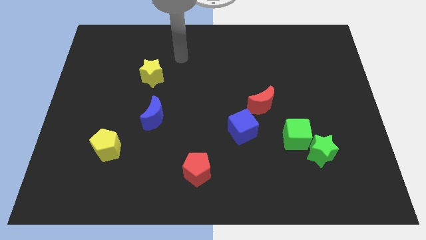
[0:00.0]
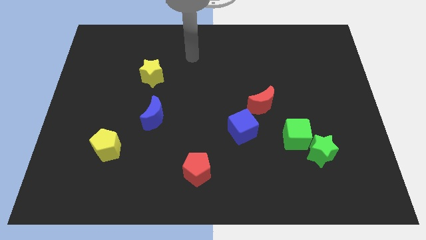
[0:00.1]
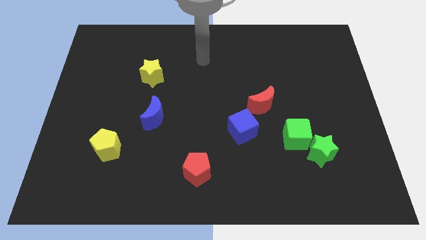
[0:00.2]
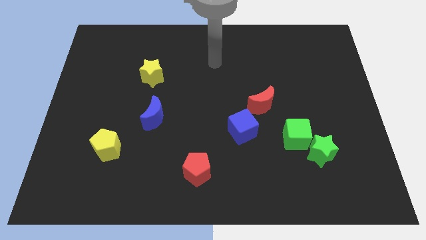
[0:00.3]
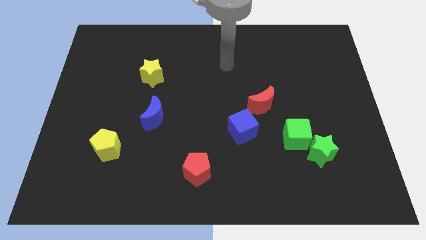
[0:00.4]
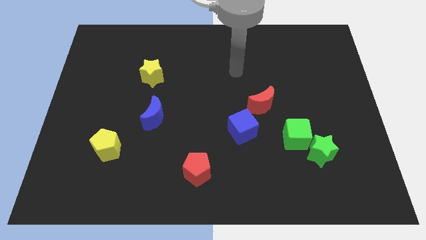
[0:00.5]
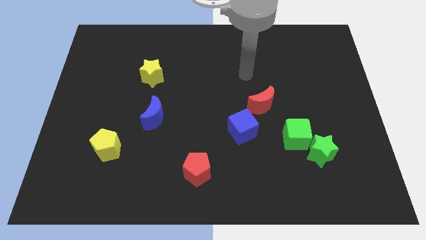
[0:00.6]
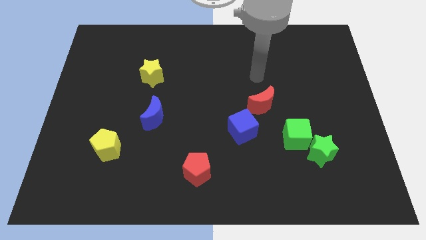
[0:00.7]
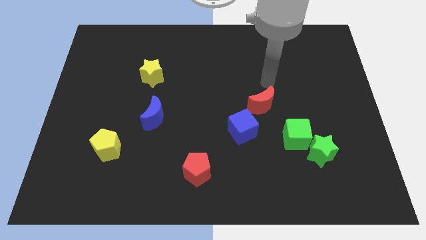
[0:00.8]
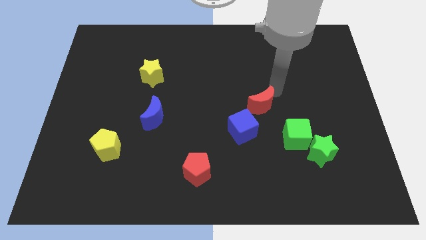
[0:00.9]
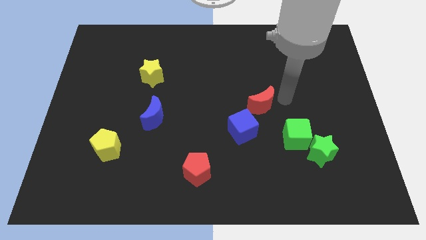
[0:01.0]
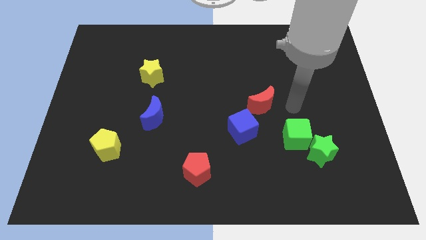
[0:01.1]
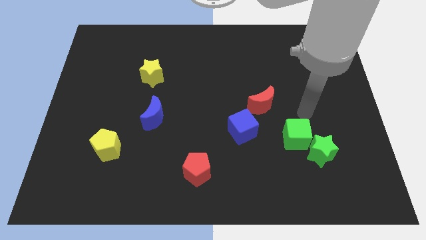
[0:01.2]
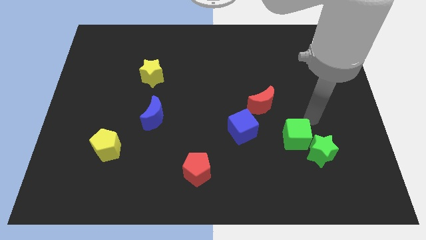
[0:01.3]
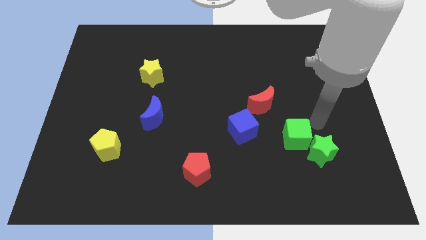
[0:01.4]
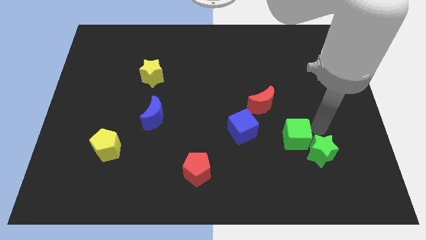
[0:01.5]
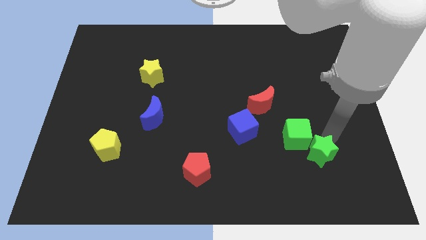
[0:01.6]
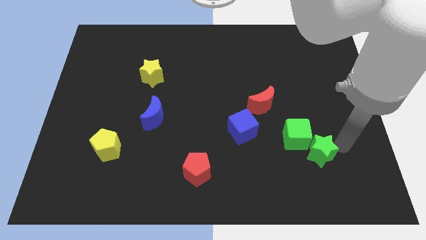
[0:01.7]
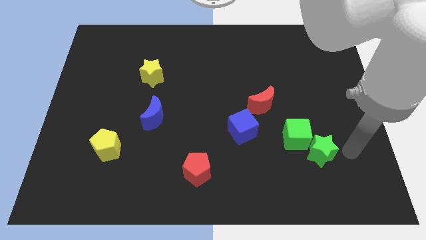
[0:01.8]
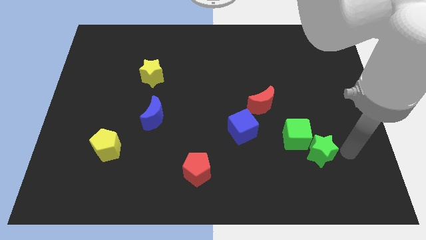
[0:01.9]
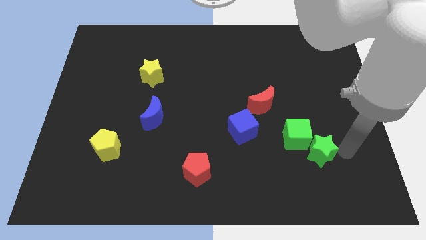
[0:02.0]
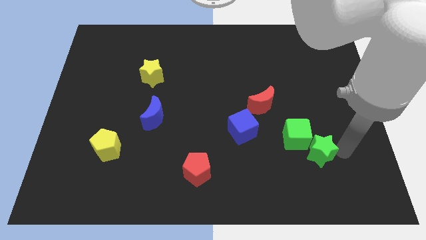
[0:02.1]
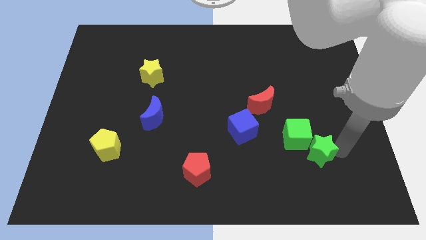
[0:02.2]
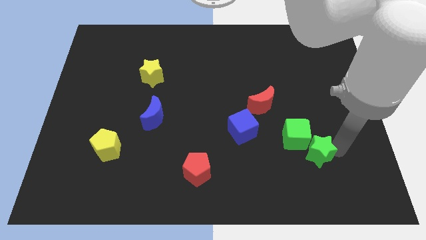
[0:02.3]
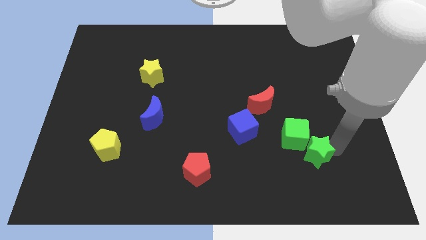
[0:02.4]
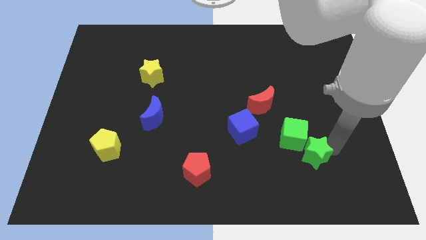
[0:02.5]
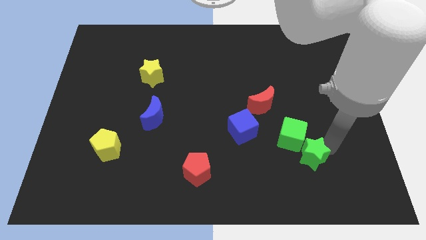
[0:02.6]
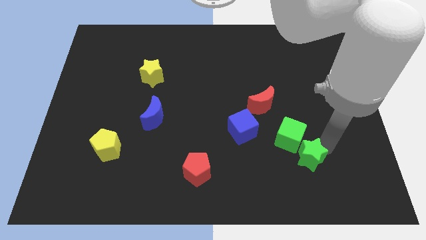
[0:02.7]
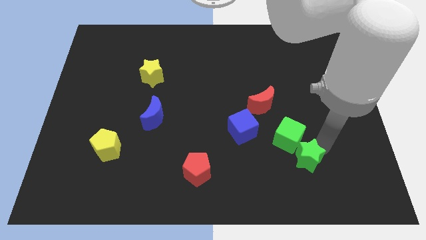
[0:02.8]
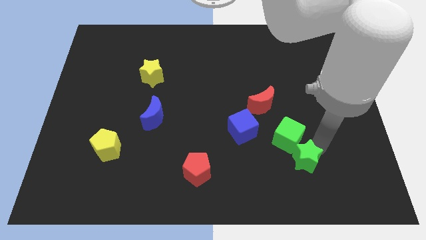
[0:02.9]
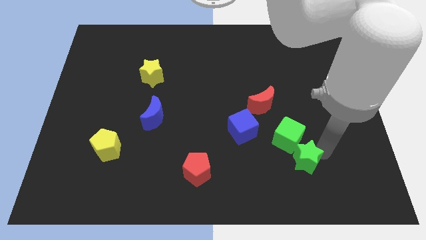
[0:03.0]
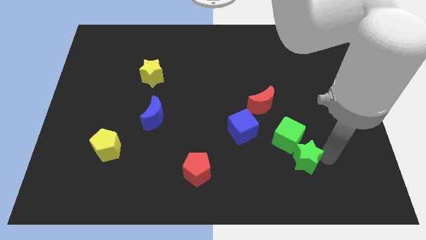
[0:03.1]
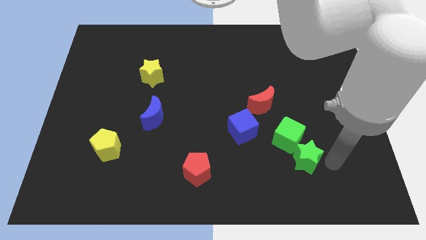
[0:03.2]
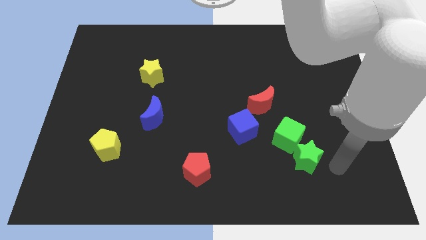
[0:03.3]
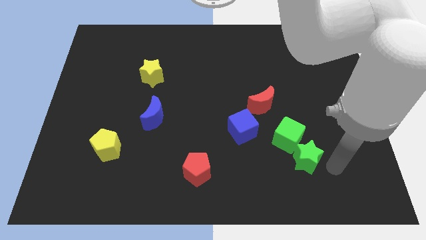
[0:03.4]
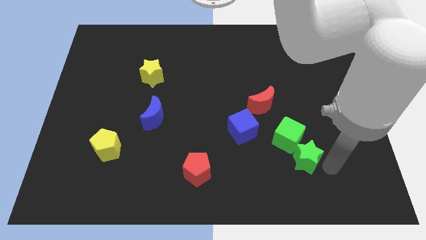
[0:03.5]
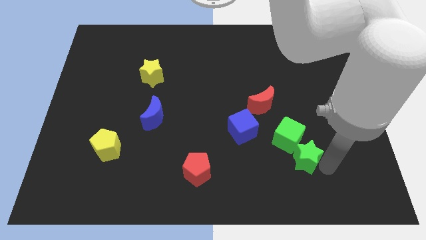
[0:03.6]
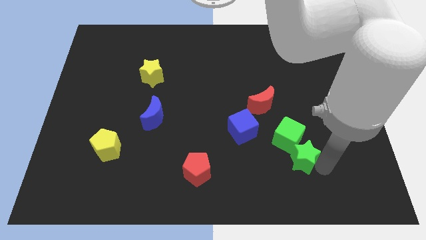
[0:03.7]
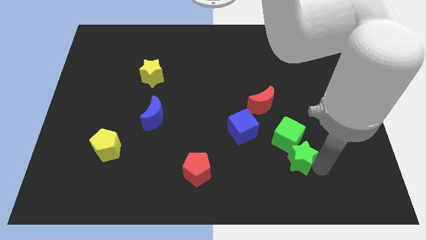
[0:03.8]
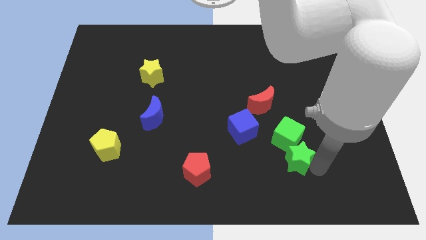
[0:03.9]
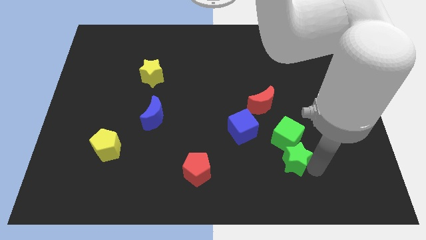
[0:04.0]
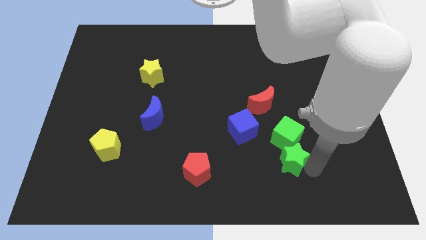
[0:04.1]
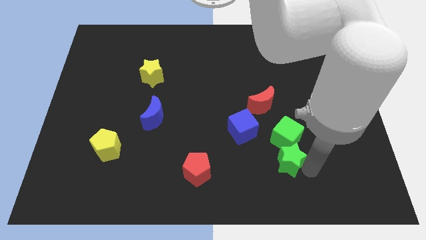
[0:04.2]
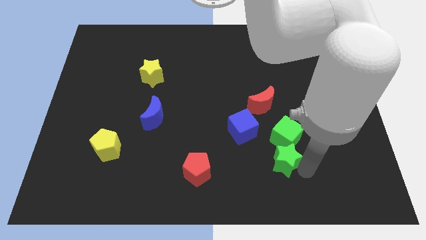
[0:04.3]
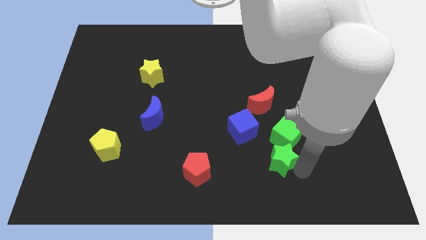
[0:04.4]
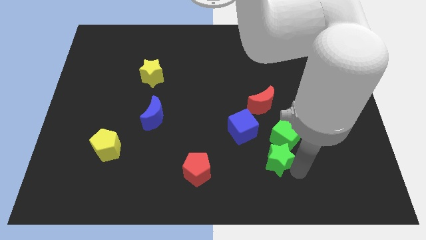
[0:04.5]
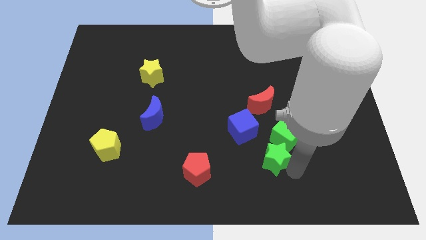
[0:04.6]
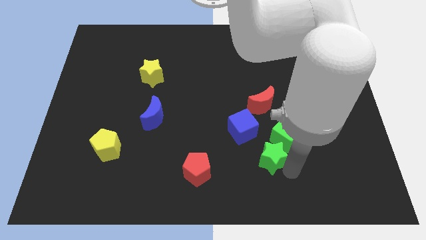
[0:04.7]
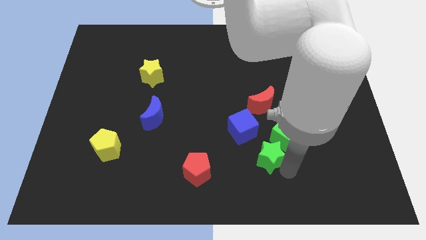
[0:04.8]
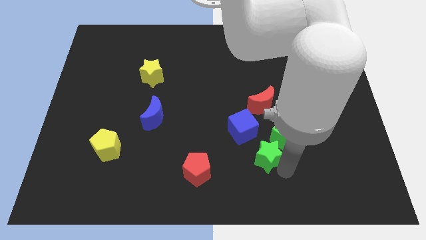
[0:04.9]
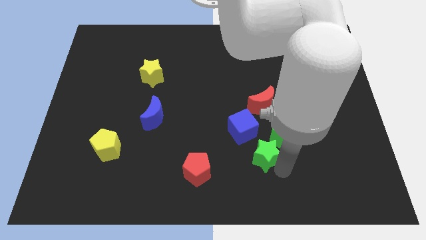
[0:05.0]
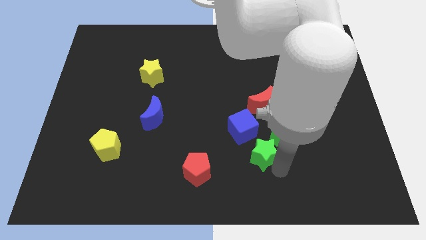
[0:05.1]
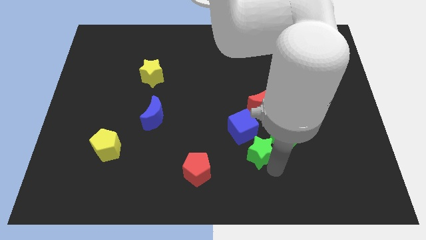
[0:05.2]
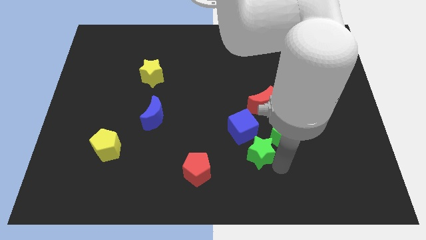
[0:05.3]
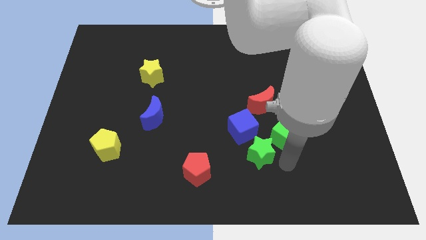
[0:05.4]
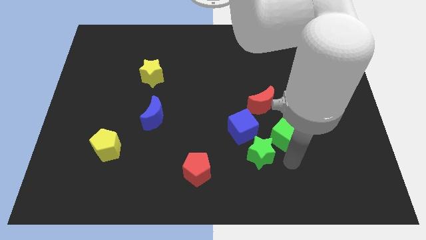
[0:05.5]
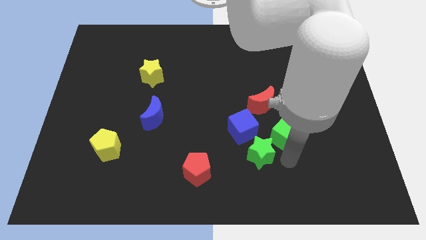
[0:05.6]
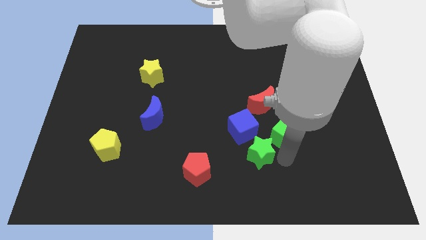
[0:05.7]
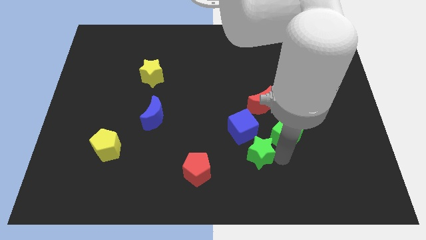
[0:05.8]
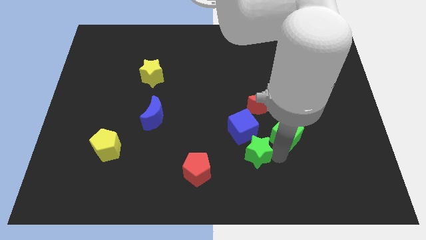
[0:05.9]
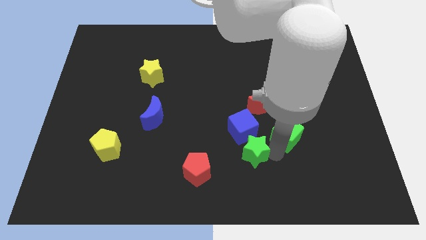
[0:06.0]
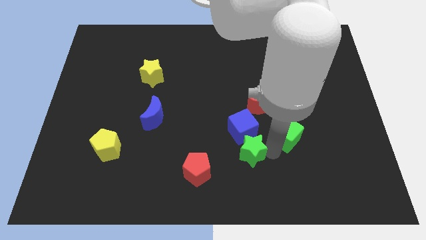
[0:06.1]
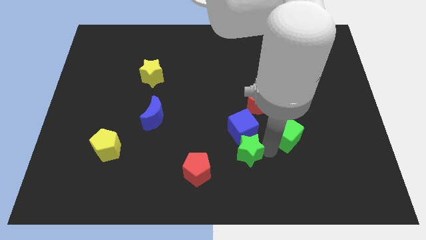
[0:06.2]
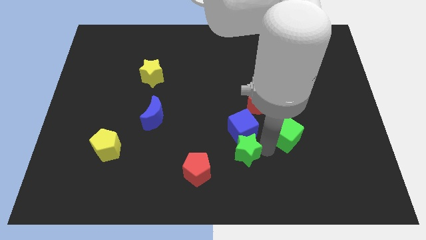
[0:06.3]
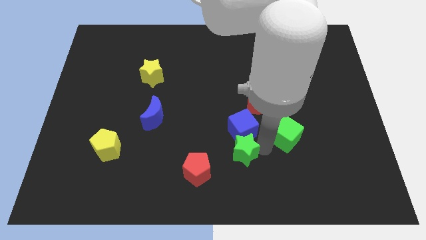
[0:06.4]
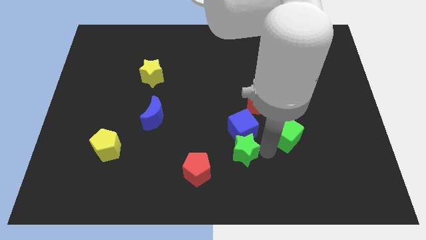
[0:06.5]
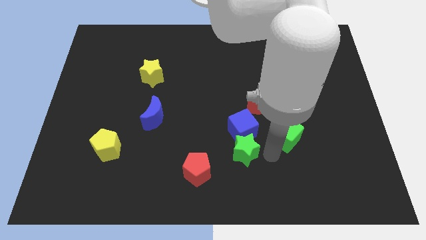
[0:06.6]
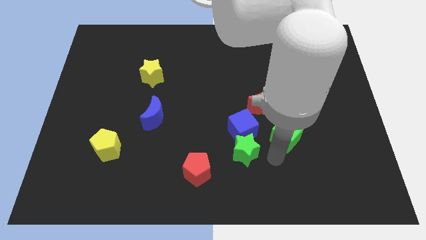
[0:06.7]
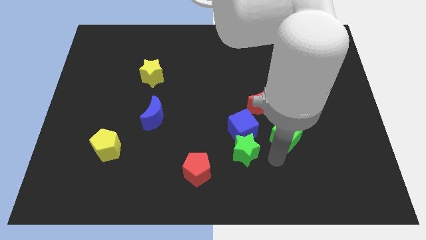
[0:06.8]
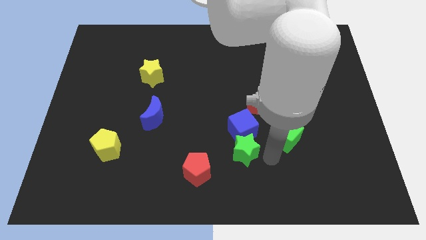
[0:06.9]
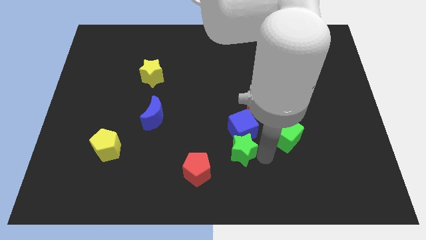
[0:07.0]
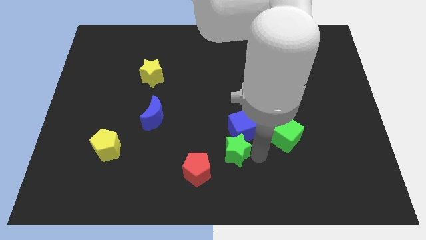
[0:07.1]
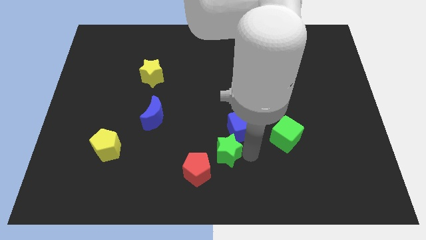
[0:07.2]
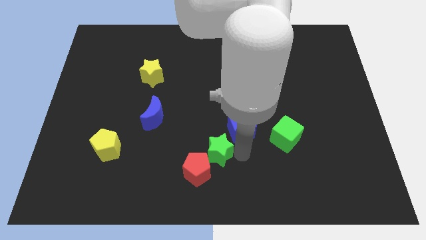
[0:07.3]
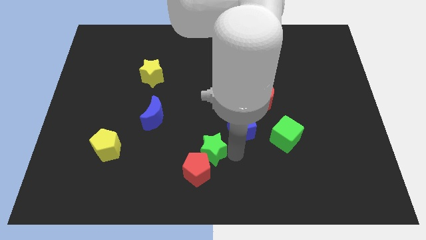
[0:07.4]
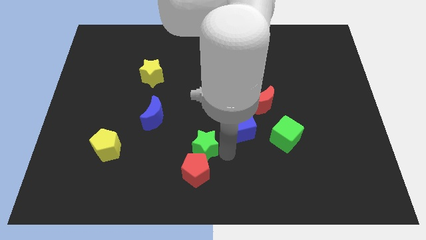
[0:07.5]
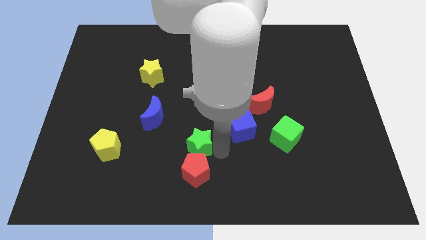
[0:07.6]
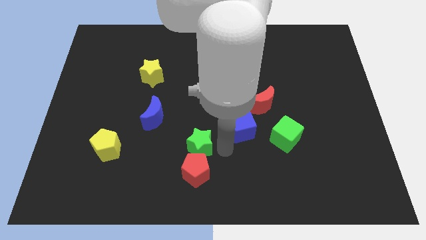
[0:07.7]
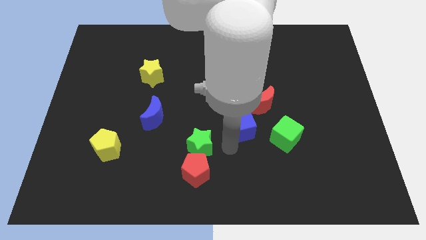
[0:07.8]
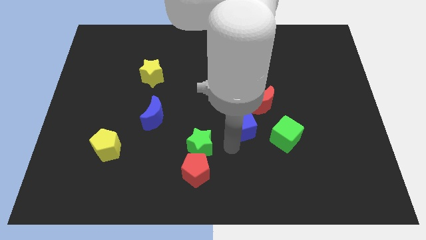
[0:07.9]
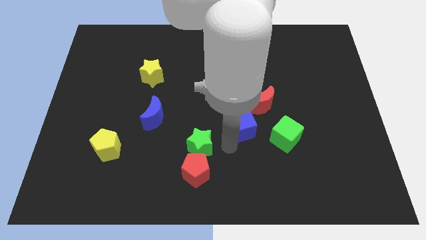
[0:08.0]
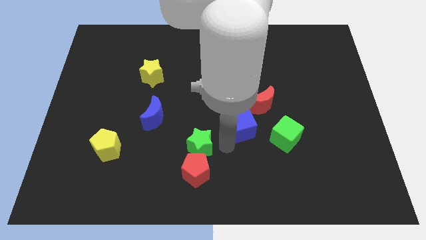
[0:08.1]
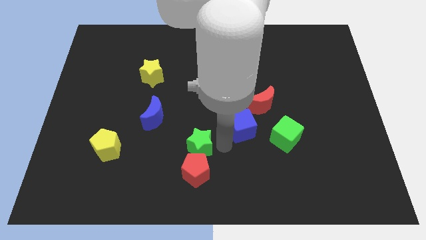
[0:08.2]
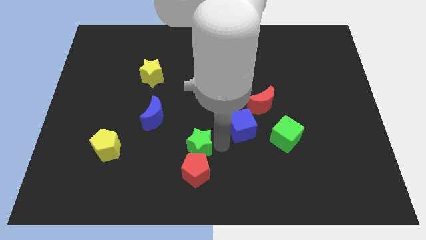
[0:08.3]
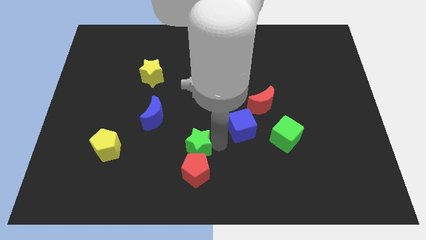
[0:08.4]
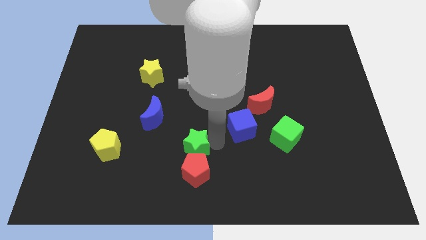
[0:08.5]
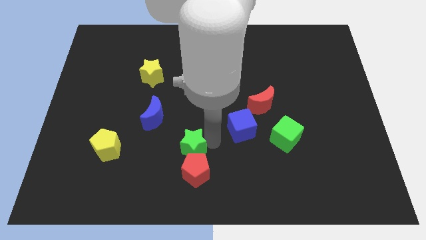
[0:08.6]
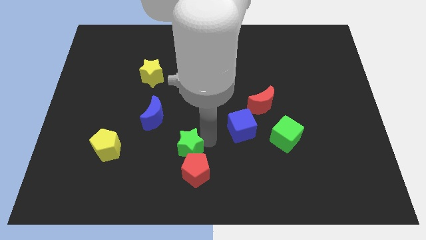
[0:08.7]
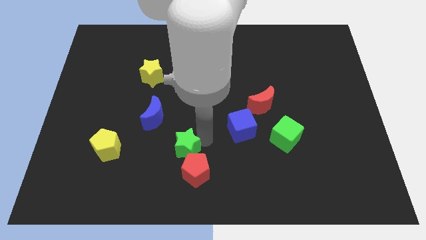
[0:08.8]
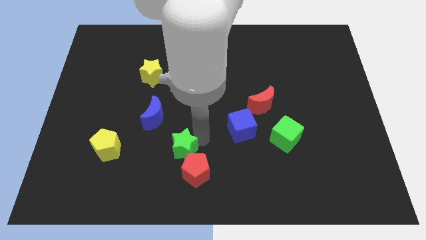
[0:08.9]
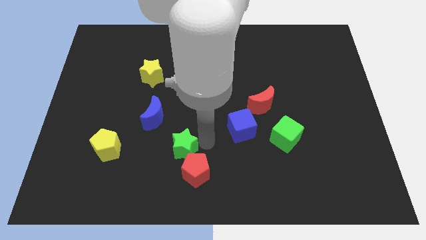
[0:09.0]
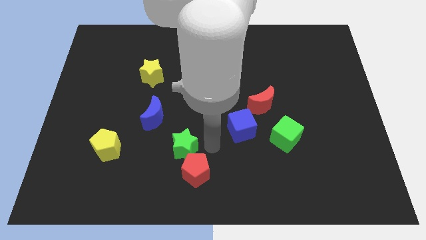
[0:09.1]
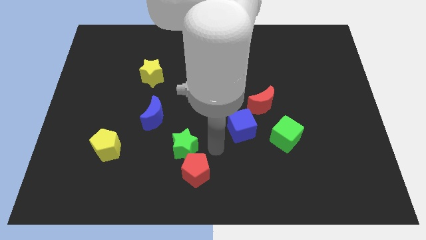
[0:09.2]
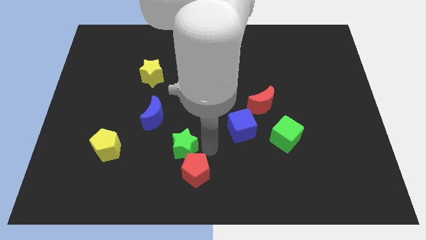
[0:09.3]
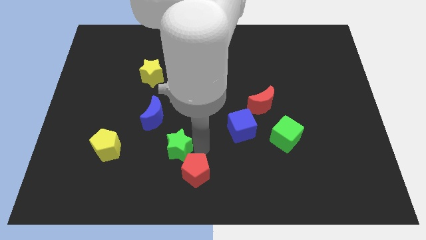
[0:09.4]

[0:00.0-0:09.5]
move the green star just right of the yellow pentagon
